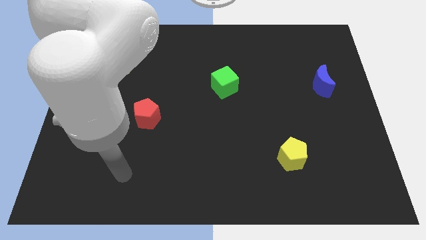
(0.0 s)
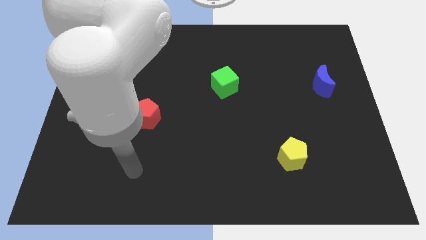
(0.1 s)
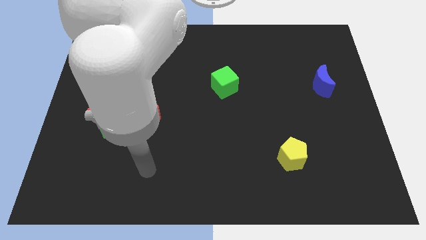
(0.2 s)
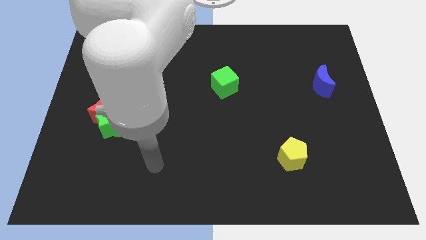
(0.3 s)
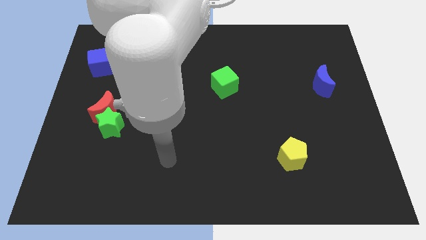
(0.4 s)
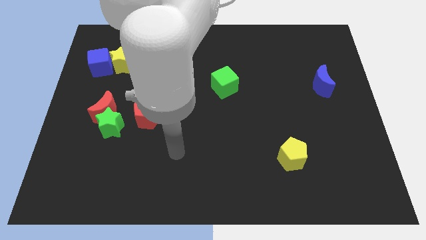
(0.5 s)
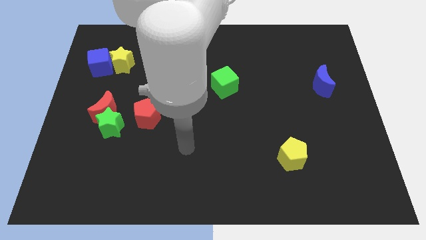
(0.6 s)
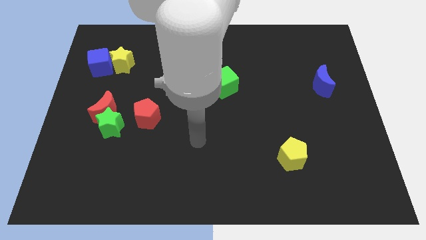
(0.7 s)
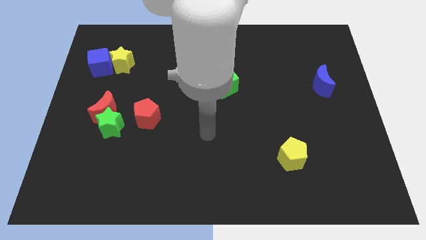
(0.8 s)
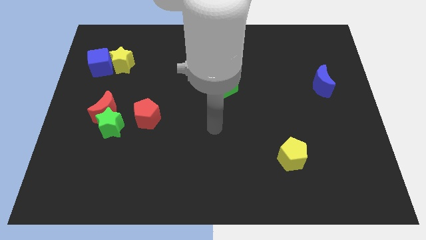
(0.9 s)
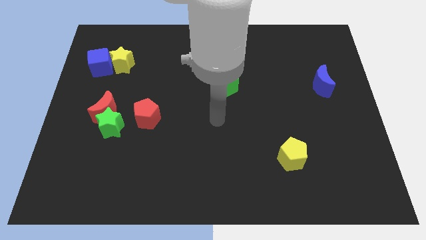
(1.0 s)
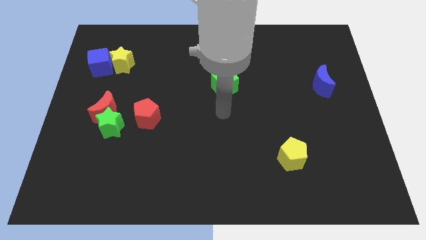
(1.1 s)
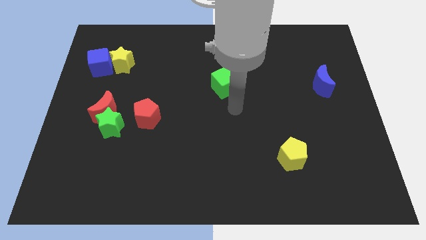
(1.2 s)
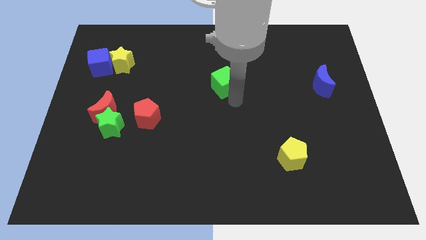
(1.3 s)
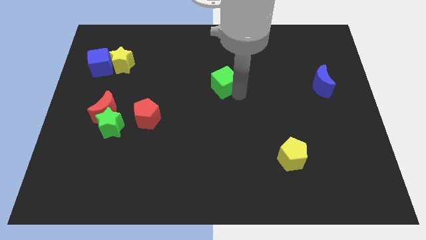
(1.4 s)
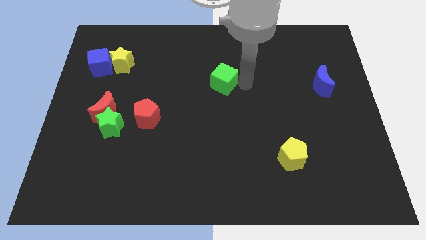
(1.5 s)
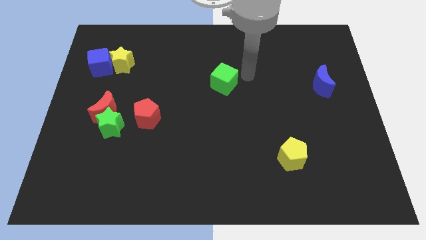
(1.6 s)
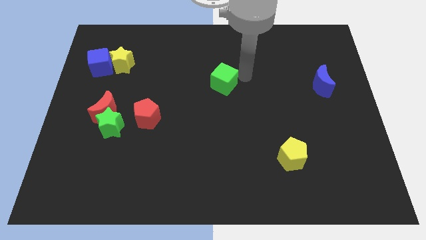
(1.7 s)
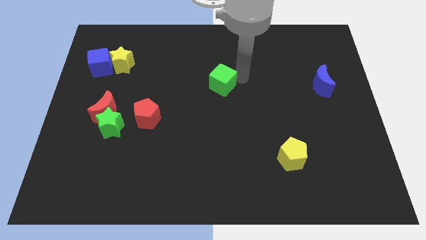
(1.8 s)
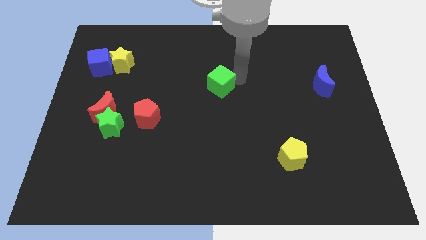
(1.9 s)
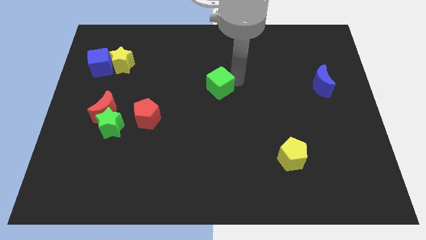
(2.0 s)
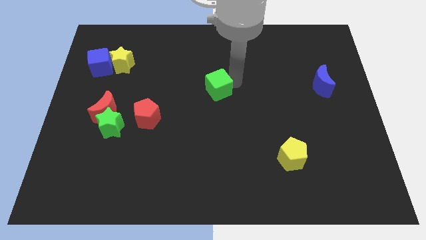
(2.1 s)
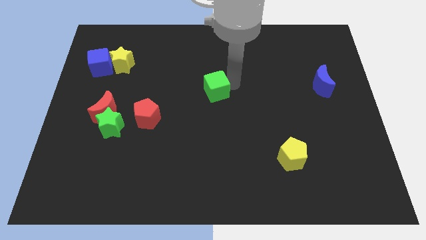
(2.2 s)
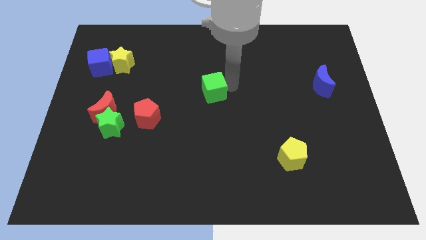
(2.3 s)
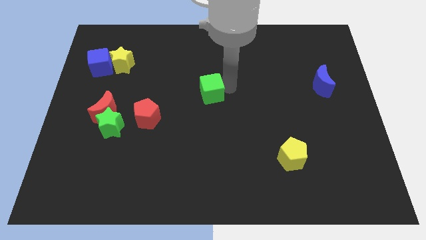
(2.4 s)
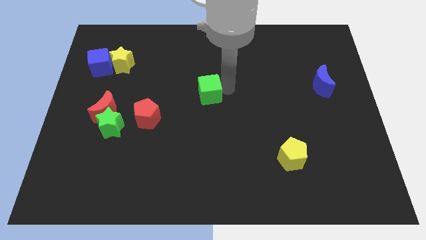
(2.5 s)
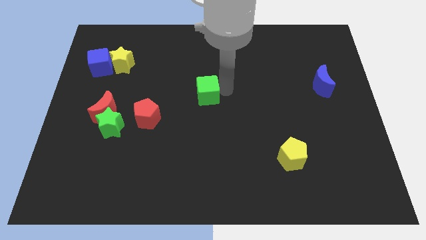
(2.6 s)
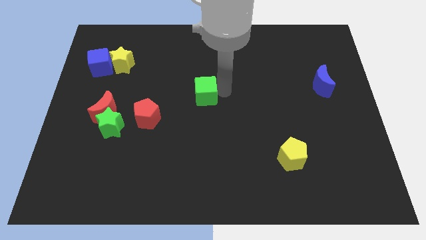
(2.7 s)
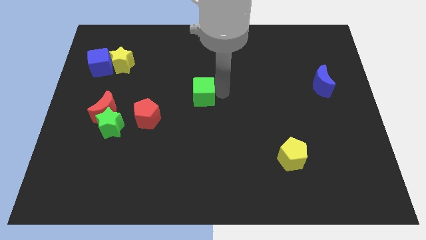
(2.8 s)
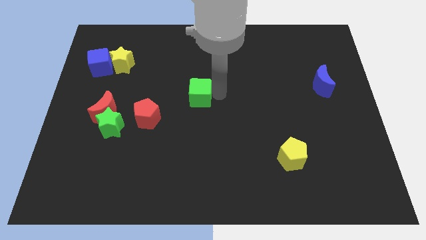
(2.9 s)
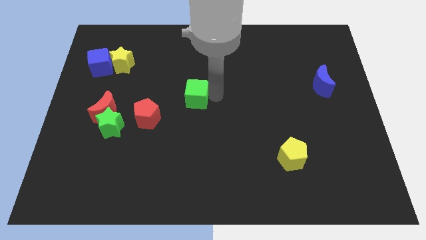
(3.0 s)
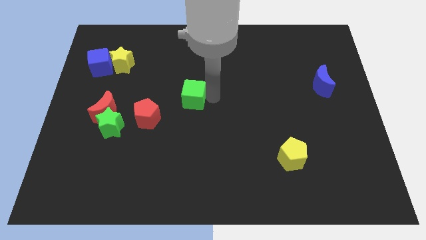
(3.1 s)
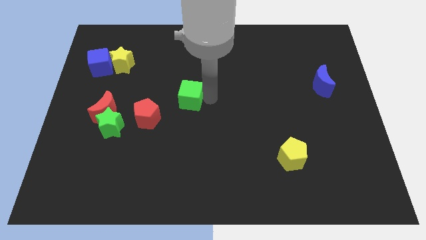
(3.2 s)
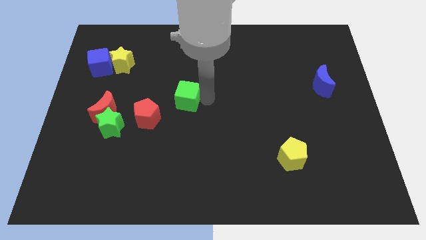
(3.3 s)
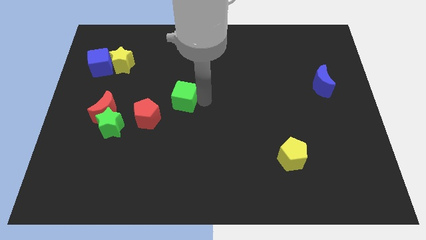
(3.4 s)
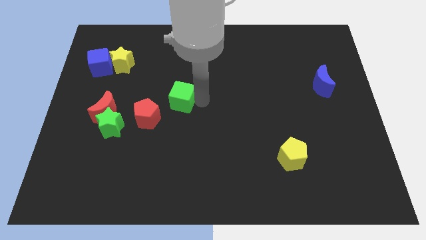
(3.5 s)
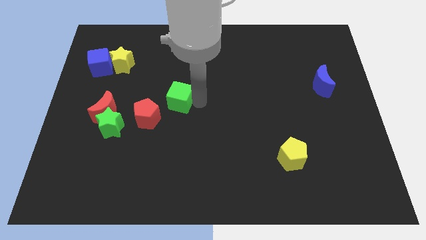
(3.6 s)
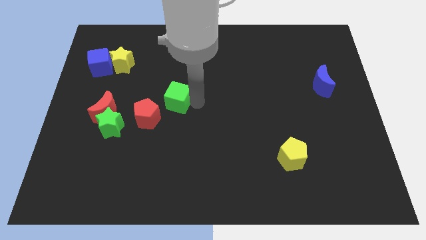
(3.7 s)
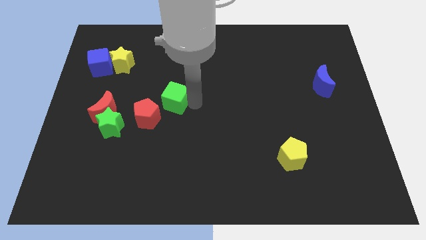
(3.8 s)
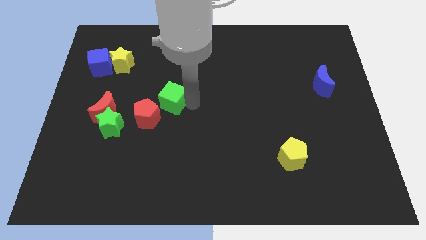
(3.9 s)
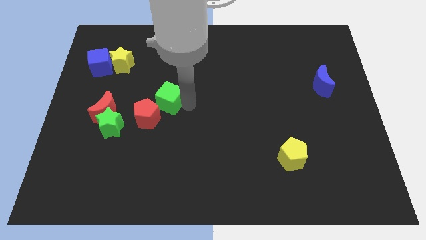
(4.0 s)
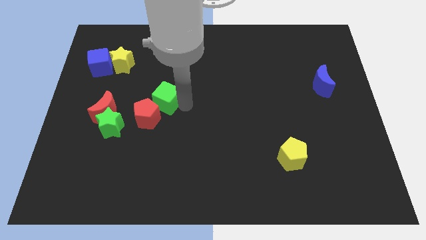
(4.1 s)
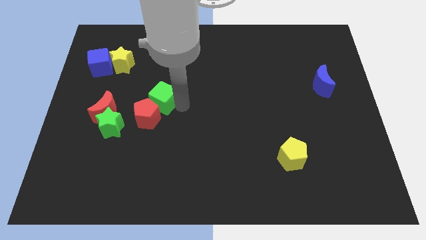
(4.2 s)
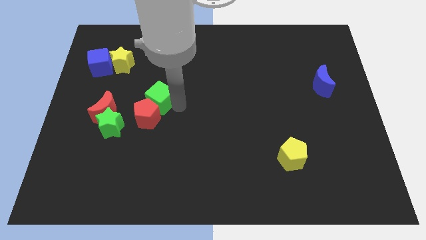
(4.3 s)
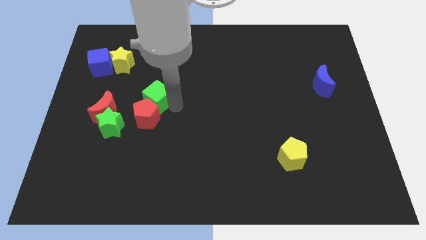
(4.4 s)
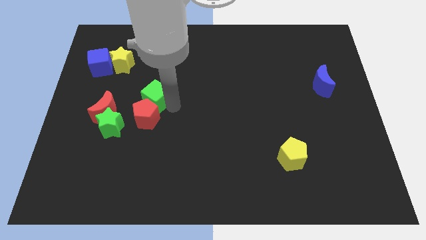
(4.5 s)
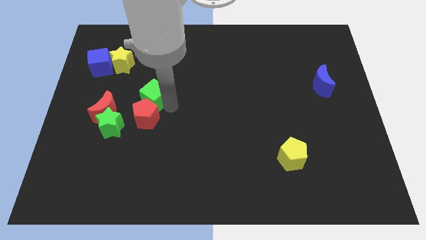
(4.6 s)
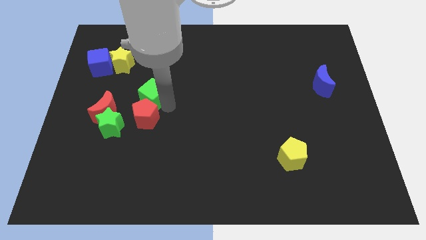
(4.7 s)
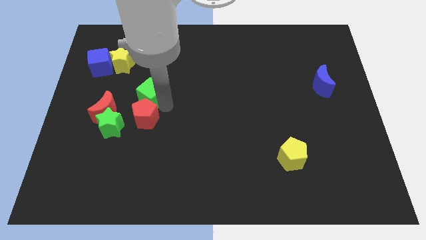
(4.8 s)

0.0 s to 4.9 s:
put the green cube to the top right side of the red moon

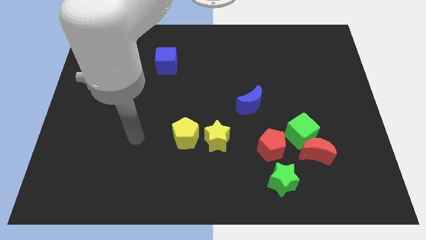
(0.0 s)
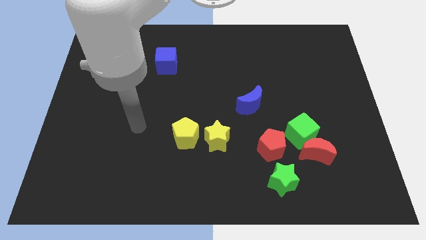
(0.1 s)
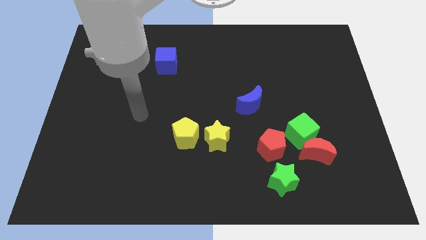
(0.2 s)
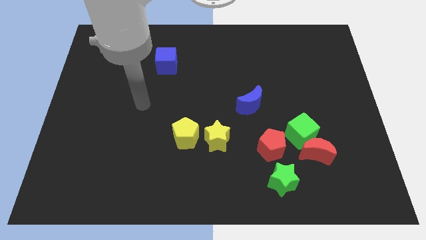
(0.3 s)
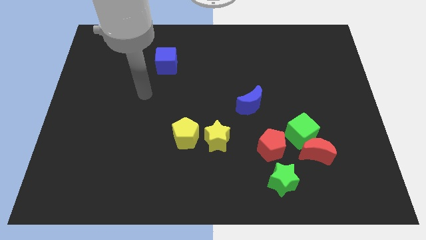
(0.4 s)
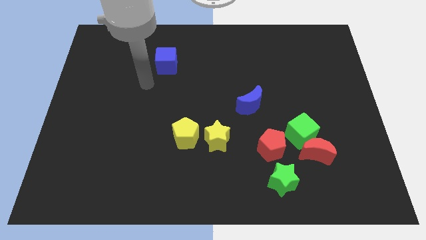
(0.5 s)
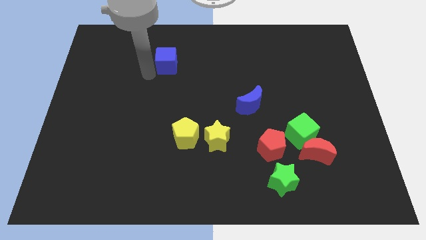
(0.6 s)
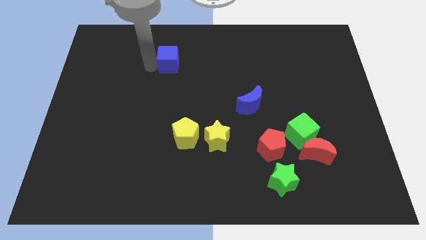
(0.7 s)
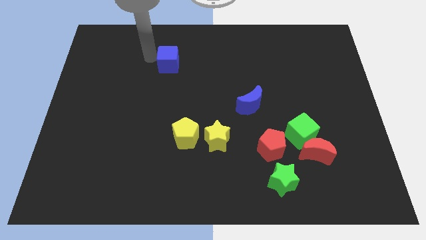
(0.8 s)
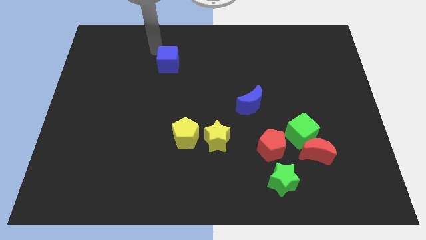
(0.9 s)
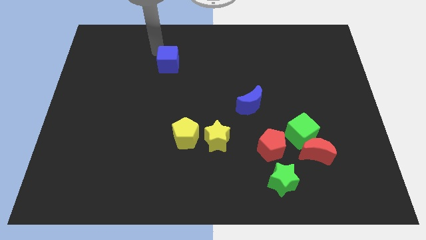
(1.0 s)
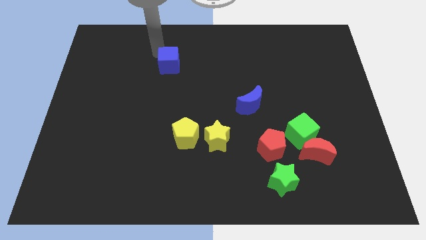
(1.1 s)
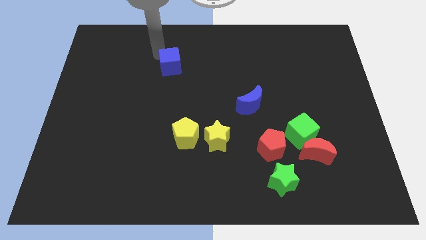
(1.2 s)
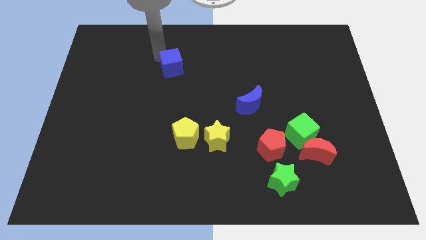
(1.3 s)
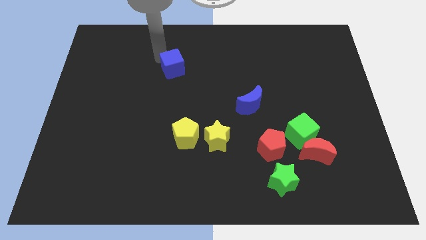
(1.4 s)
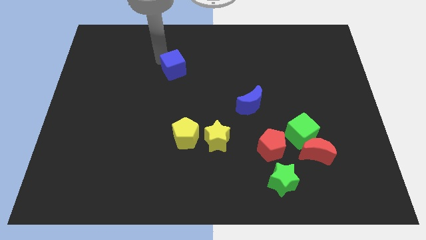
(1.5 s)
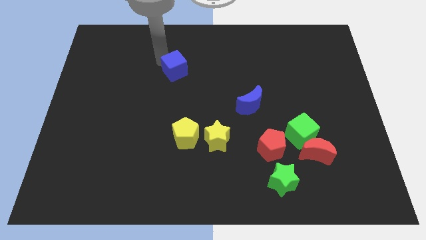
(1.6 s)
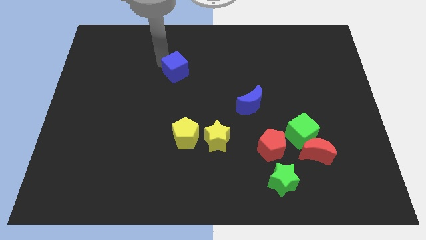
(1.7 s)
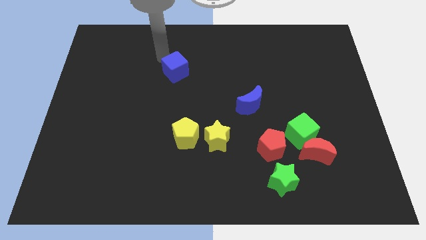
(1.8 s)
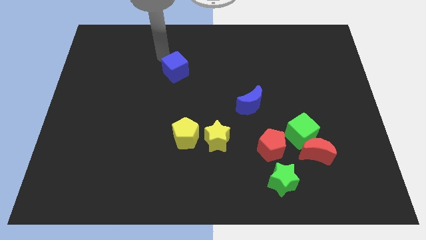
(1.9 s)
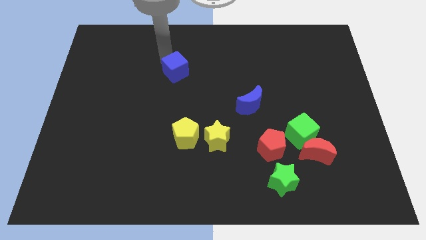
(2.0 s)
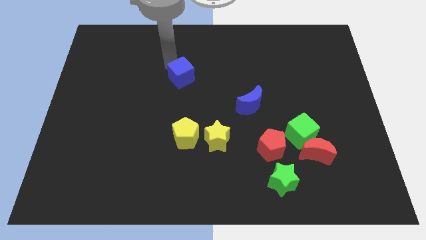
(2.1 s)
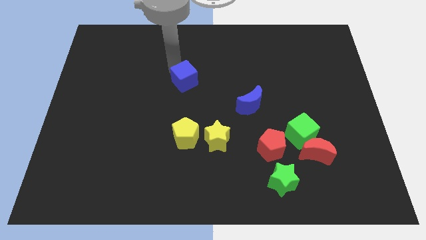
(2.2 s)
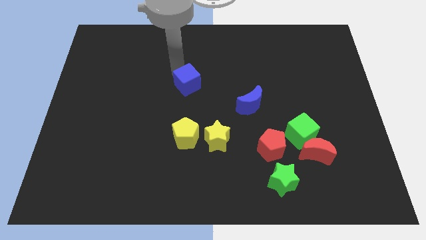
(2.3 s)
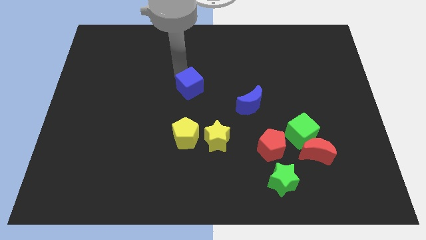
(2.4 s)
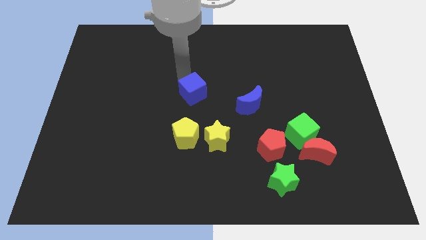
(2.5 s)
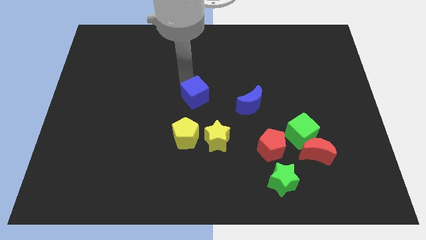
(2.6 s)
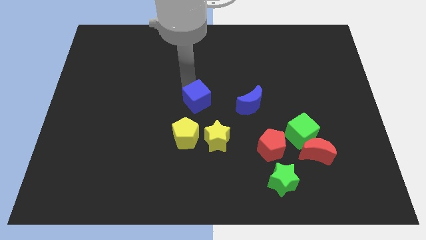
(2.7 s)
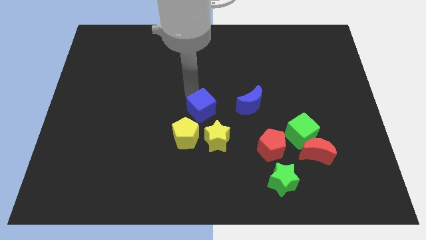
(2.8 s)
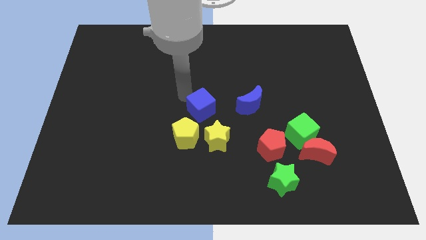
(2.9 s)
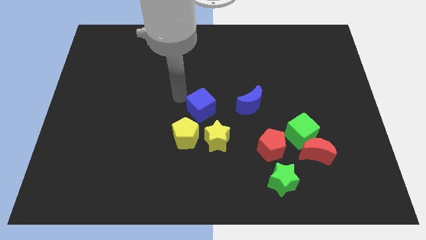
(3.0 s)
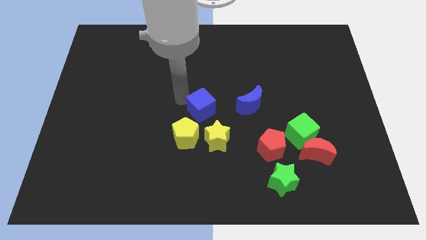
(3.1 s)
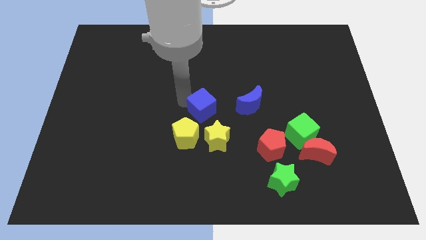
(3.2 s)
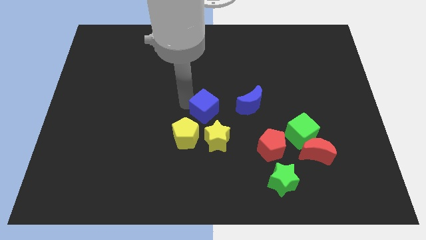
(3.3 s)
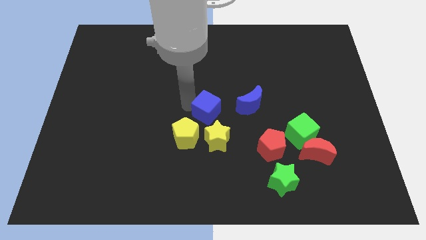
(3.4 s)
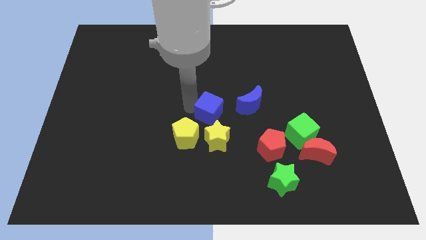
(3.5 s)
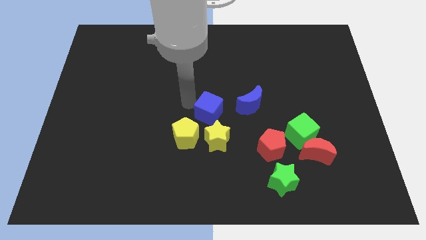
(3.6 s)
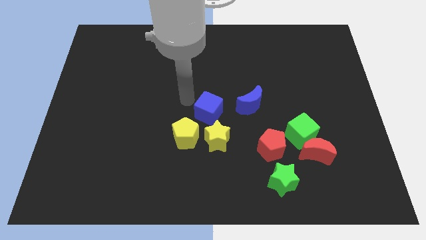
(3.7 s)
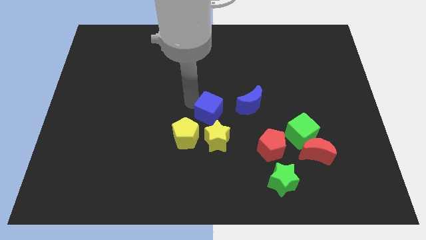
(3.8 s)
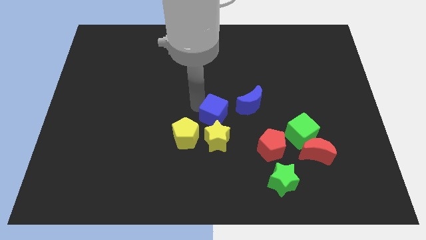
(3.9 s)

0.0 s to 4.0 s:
put the blue cube to the bottom left side of the blue moon
